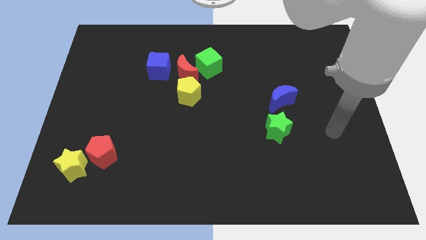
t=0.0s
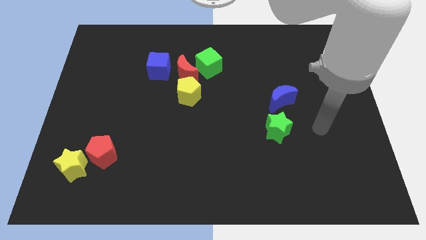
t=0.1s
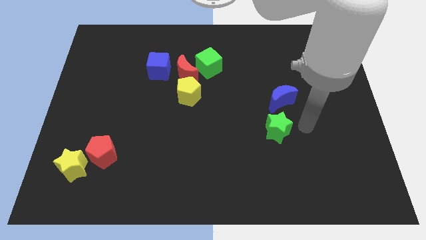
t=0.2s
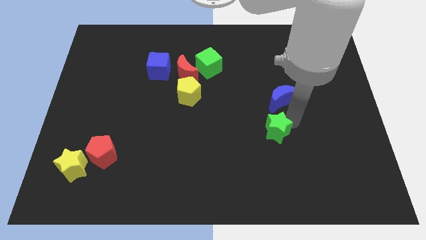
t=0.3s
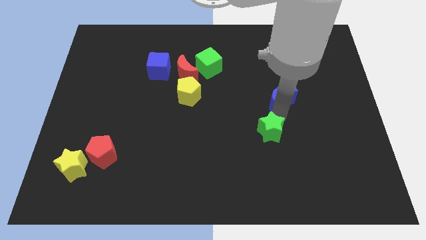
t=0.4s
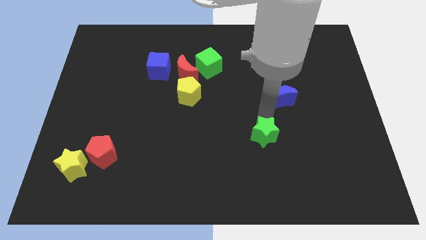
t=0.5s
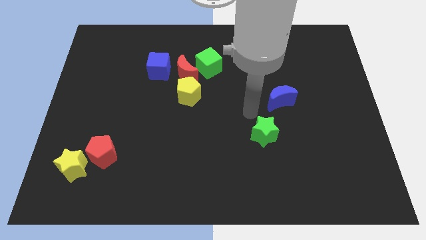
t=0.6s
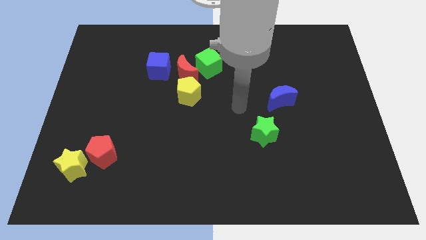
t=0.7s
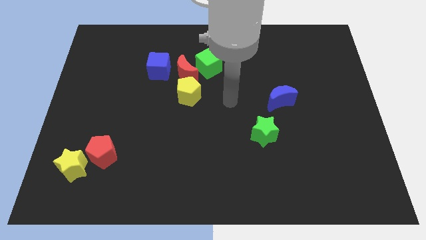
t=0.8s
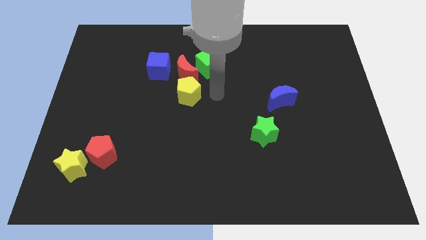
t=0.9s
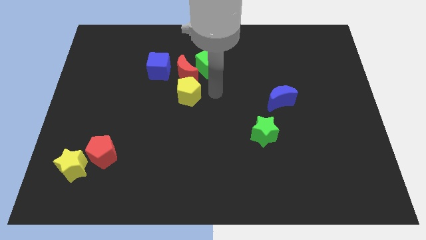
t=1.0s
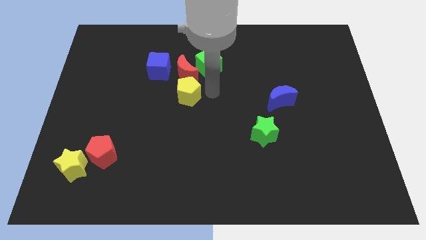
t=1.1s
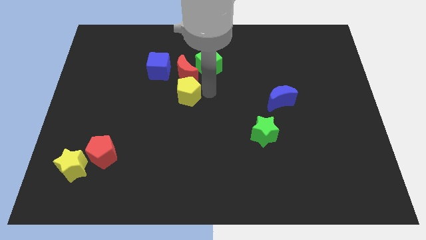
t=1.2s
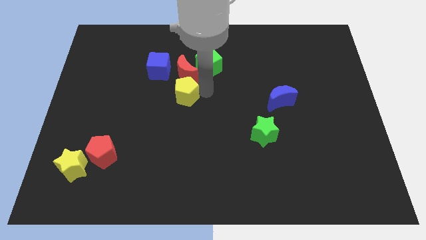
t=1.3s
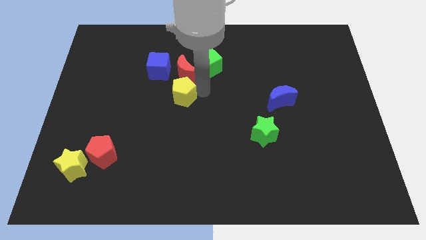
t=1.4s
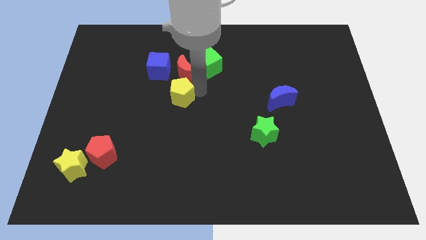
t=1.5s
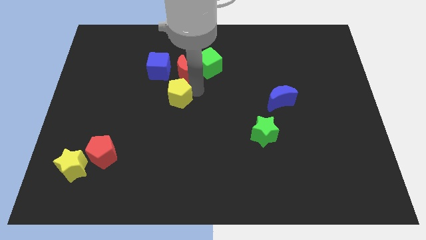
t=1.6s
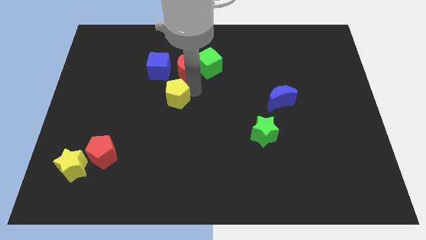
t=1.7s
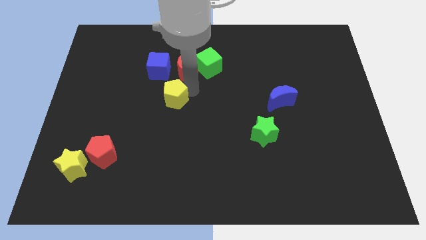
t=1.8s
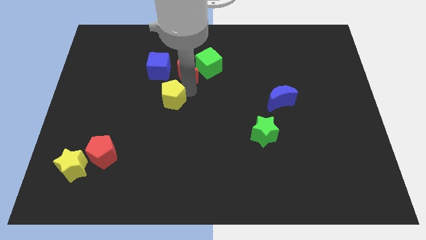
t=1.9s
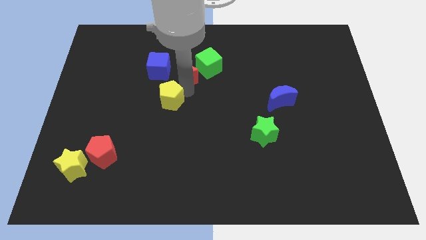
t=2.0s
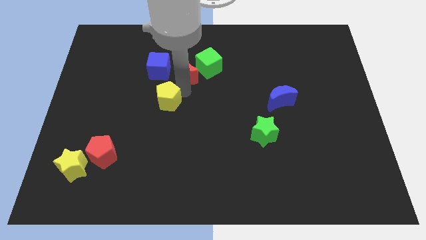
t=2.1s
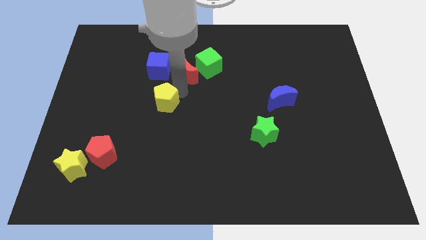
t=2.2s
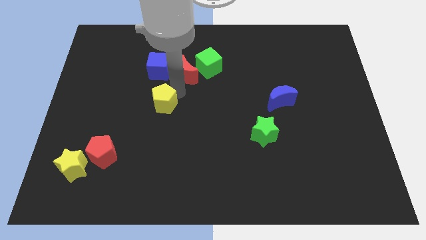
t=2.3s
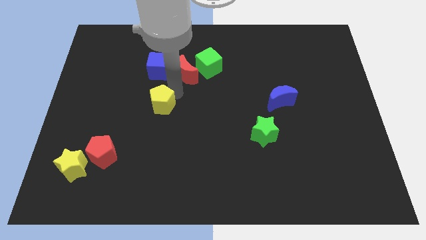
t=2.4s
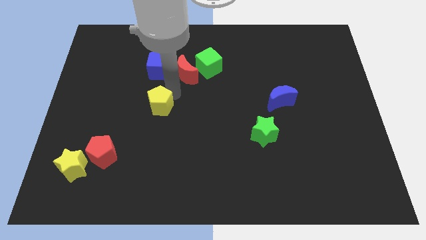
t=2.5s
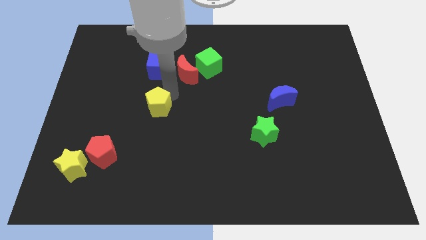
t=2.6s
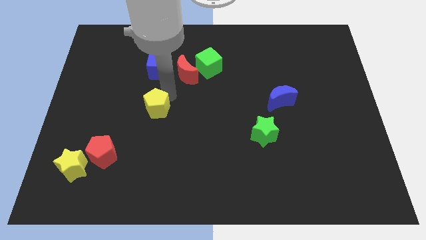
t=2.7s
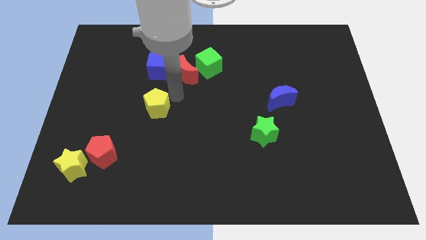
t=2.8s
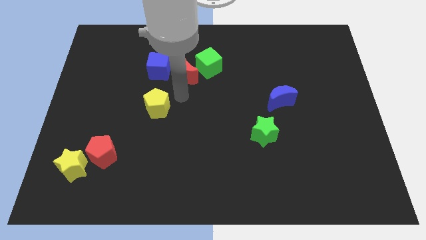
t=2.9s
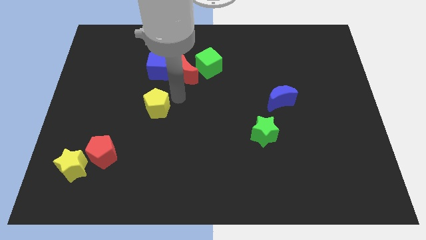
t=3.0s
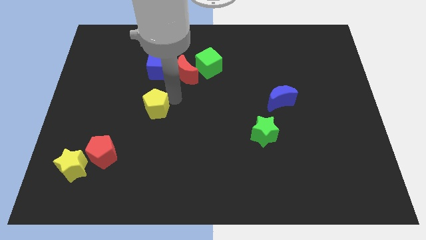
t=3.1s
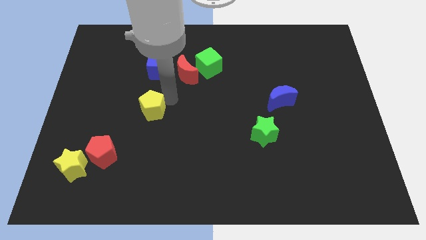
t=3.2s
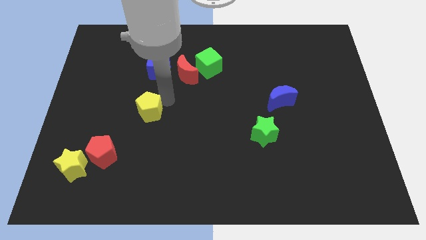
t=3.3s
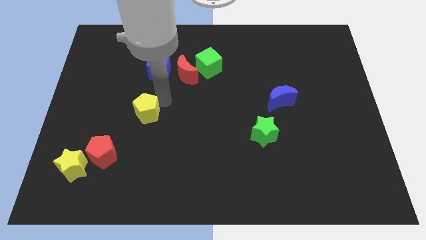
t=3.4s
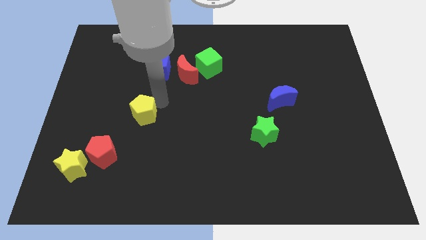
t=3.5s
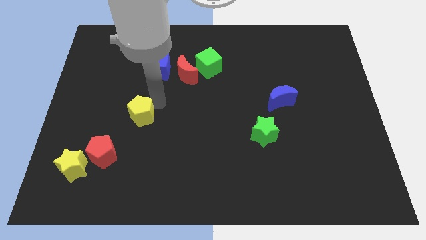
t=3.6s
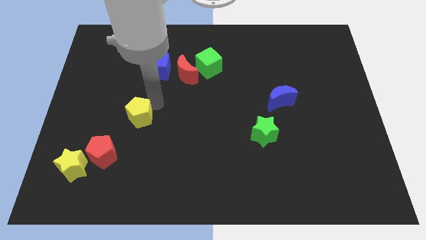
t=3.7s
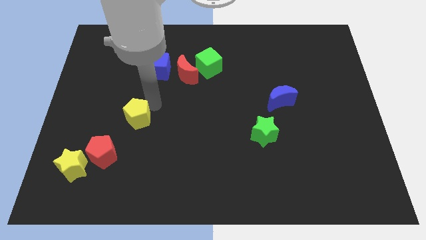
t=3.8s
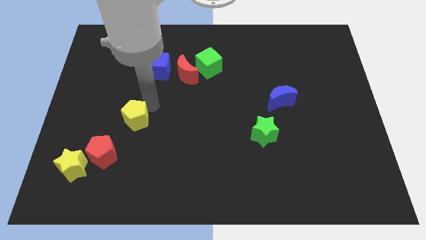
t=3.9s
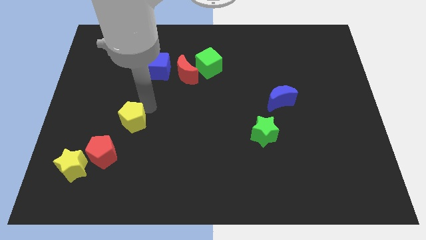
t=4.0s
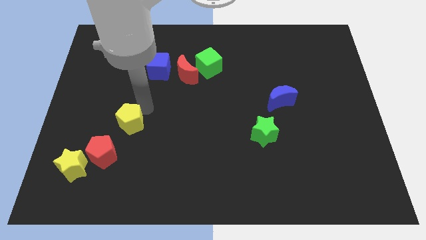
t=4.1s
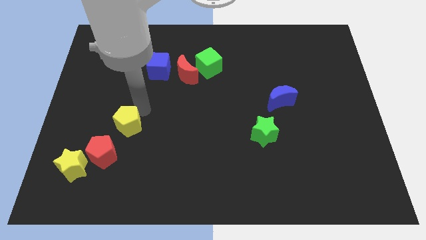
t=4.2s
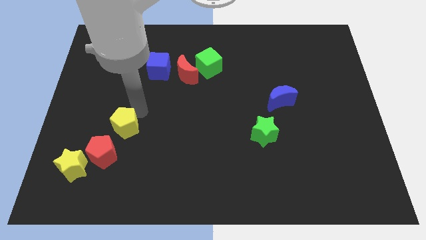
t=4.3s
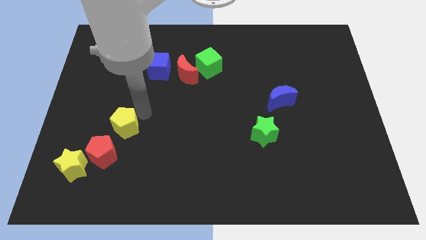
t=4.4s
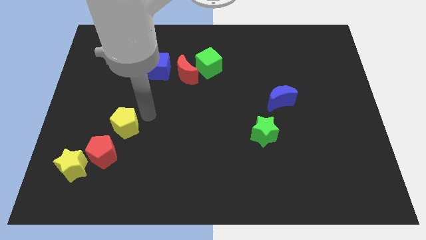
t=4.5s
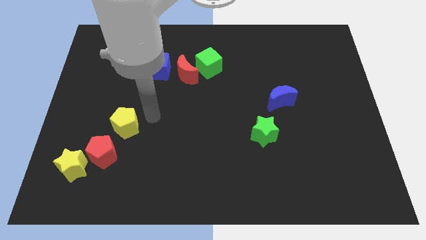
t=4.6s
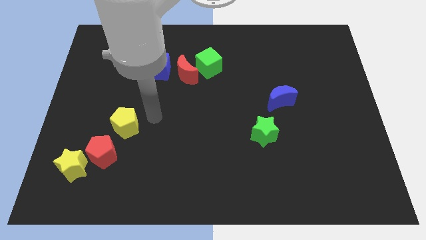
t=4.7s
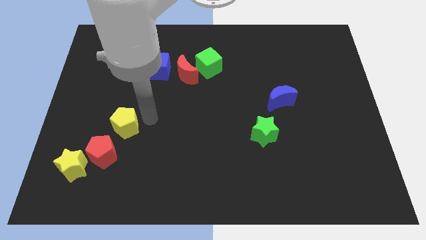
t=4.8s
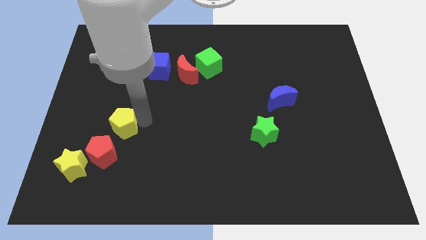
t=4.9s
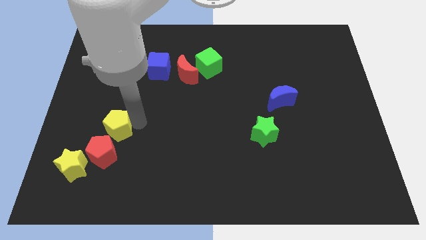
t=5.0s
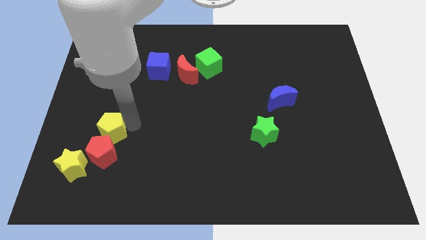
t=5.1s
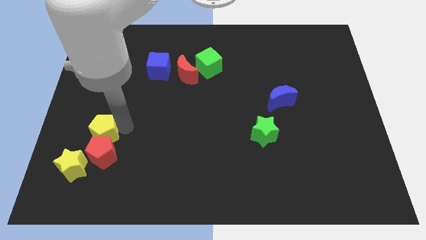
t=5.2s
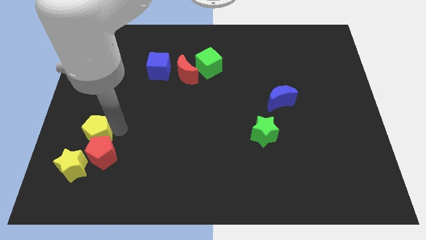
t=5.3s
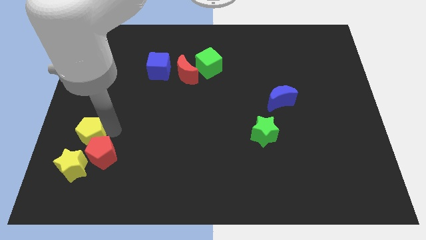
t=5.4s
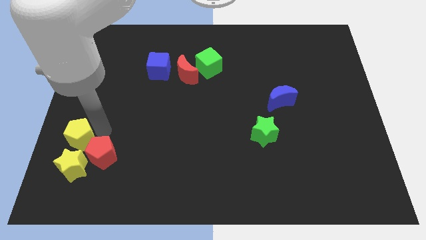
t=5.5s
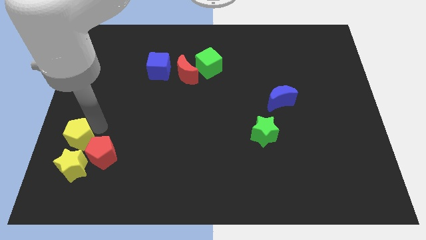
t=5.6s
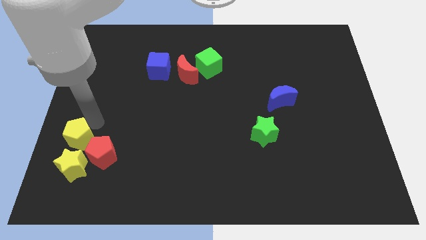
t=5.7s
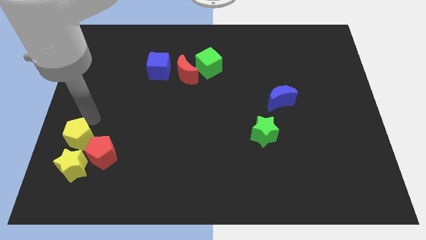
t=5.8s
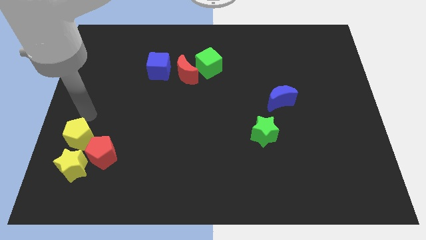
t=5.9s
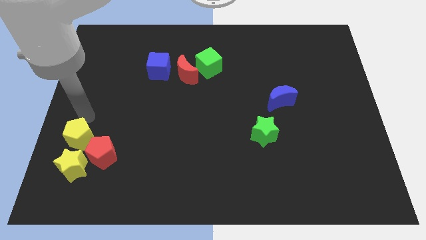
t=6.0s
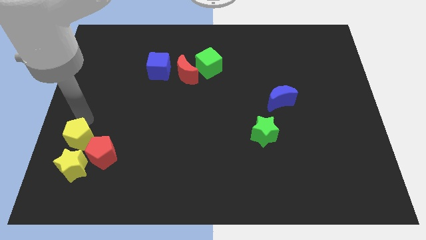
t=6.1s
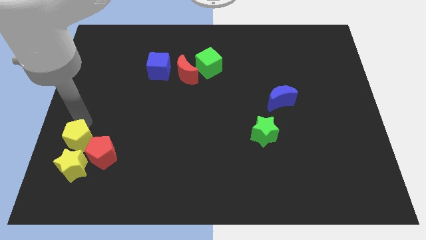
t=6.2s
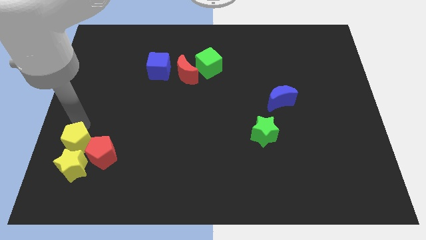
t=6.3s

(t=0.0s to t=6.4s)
move the yellow pentagon towards the yellow star
